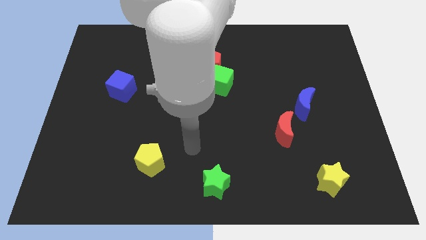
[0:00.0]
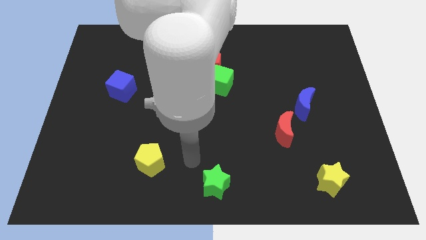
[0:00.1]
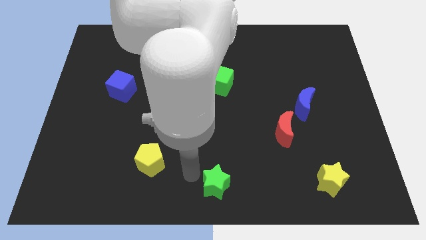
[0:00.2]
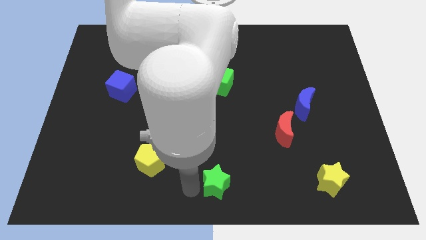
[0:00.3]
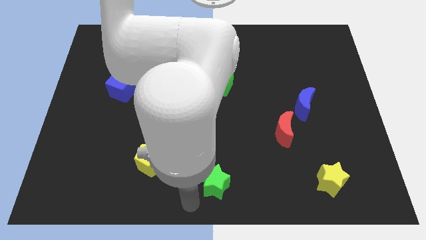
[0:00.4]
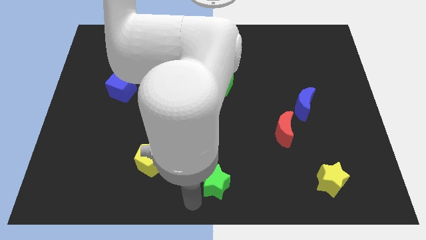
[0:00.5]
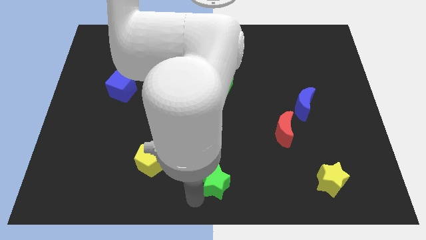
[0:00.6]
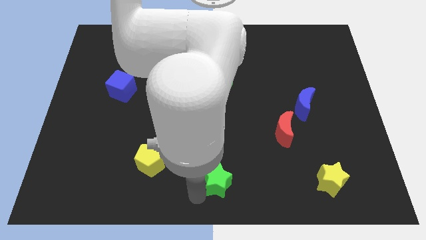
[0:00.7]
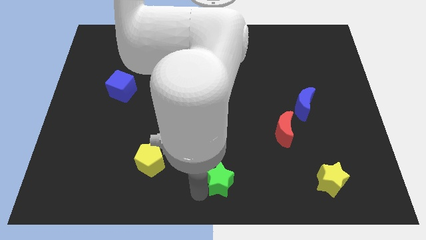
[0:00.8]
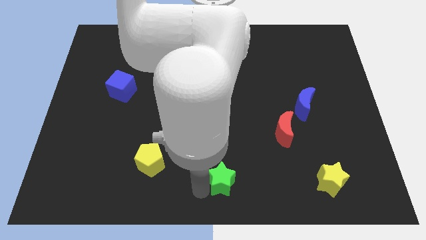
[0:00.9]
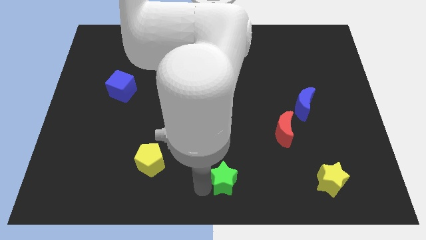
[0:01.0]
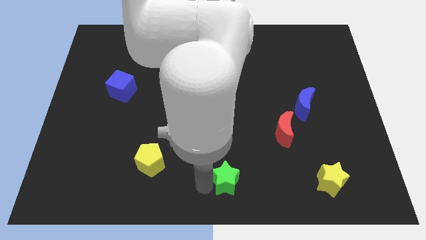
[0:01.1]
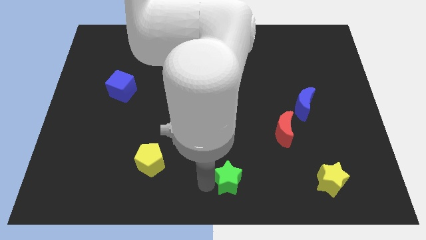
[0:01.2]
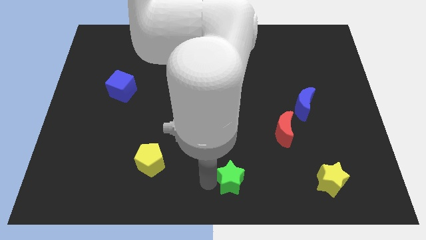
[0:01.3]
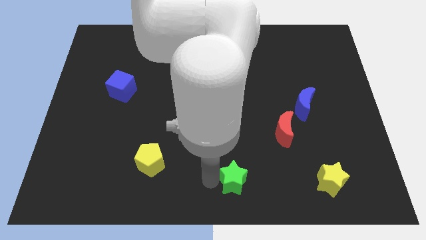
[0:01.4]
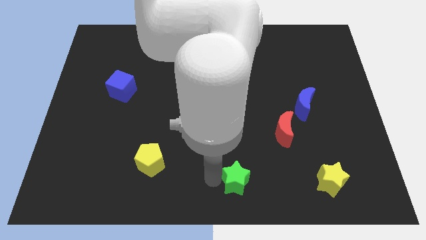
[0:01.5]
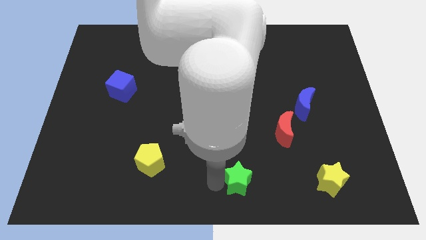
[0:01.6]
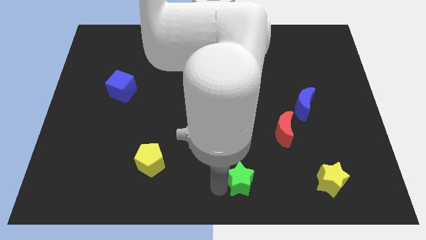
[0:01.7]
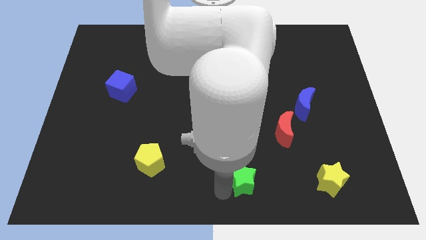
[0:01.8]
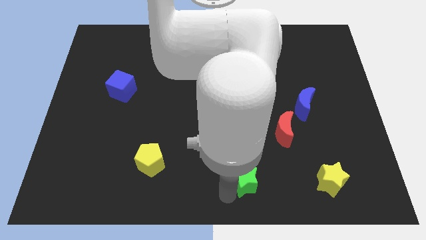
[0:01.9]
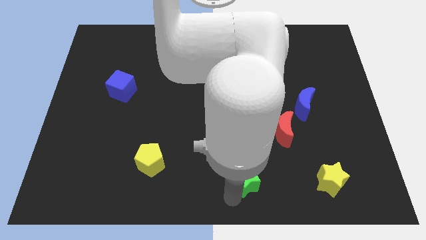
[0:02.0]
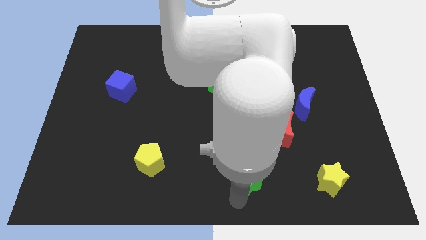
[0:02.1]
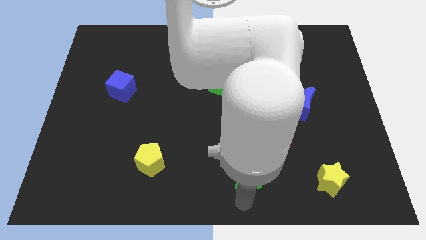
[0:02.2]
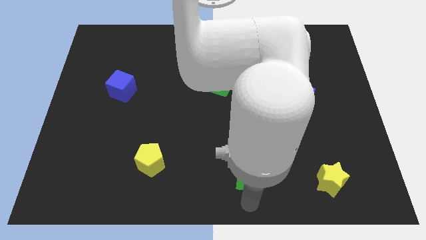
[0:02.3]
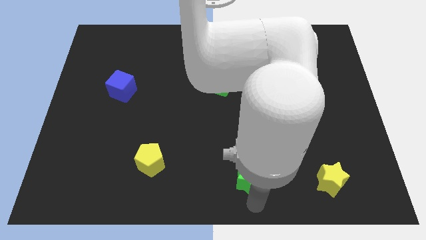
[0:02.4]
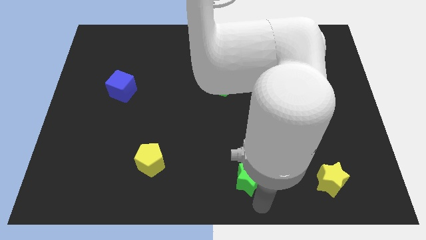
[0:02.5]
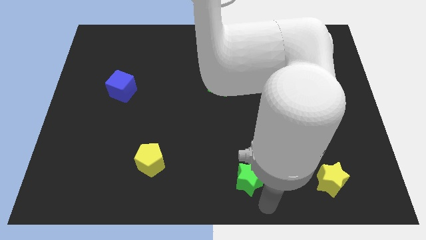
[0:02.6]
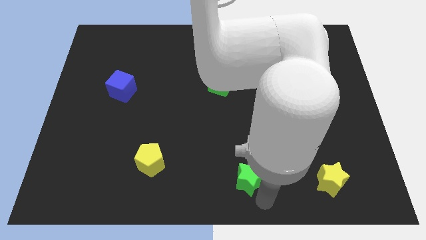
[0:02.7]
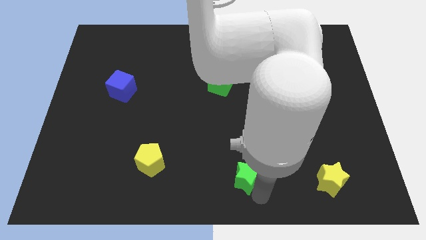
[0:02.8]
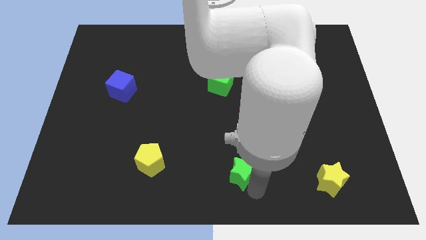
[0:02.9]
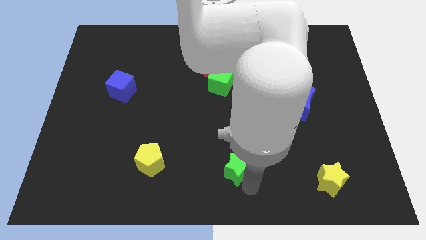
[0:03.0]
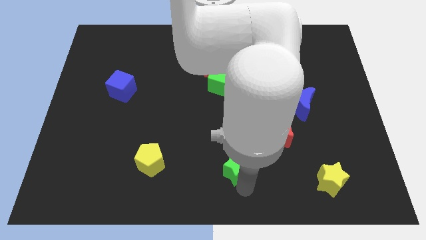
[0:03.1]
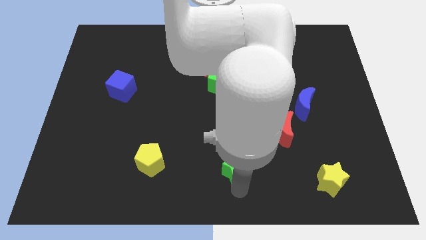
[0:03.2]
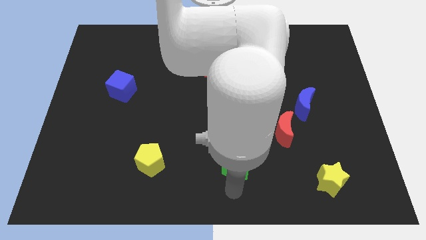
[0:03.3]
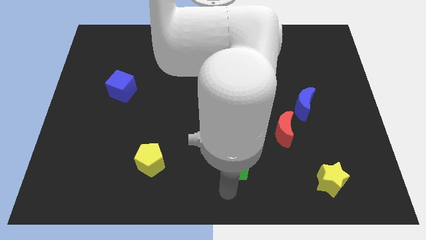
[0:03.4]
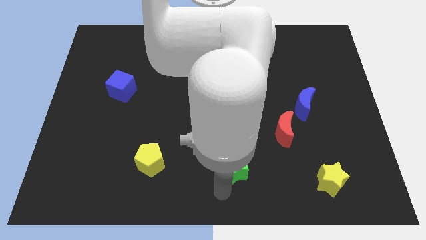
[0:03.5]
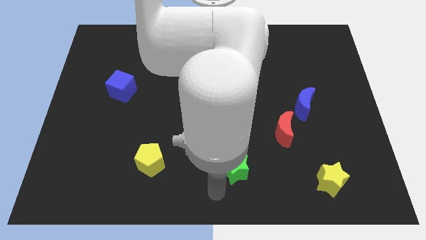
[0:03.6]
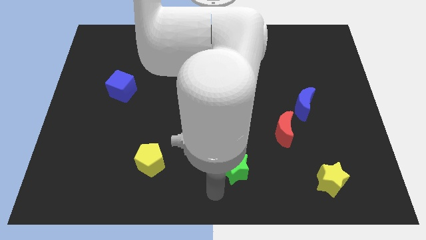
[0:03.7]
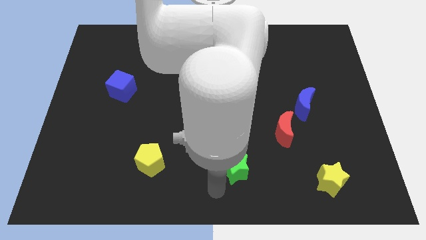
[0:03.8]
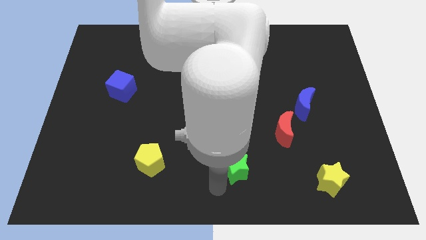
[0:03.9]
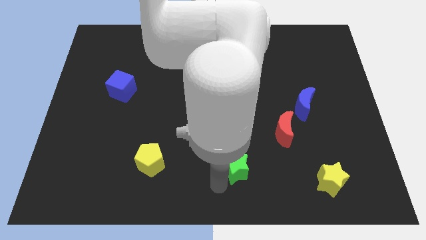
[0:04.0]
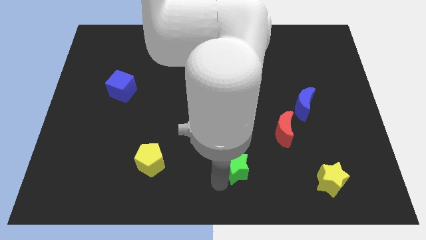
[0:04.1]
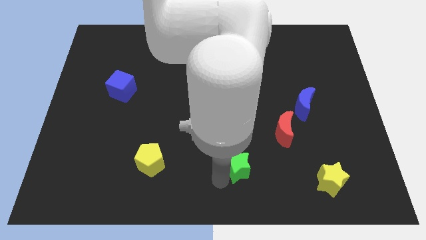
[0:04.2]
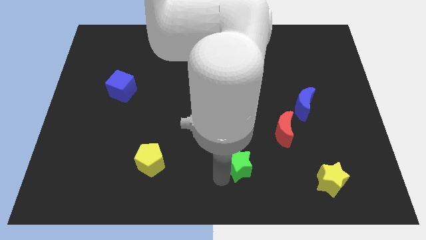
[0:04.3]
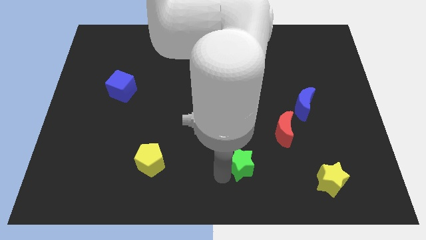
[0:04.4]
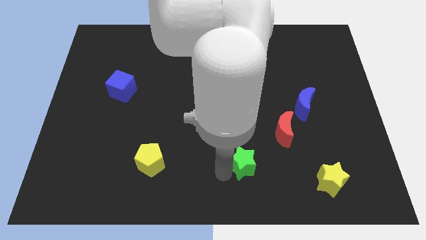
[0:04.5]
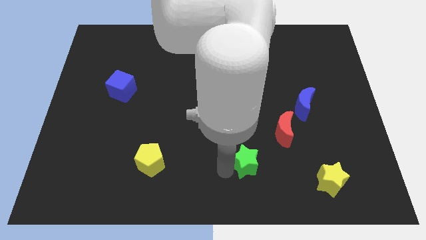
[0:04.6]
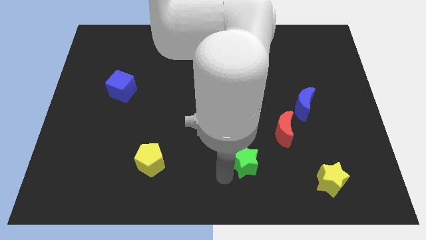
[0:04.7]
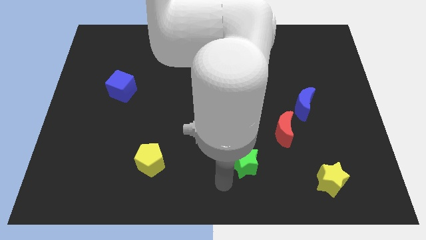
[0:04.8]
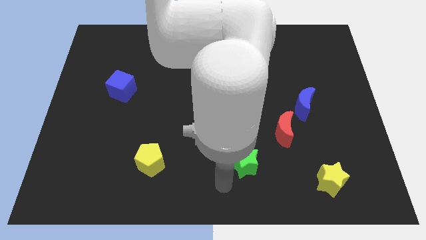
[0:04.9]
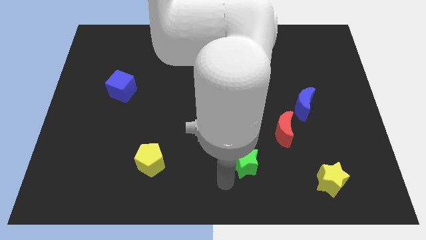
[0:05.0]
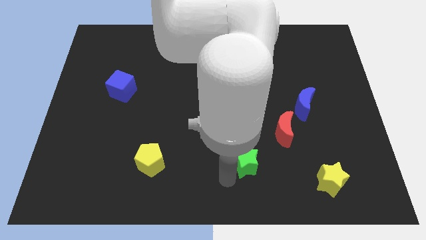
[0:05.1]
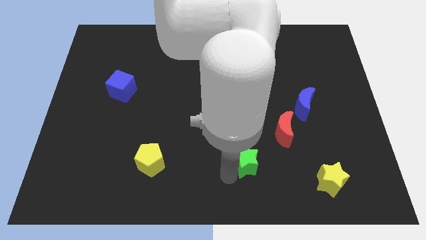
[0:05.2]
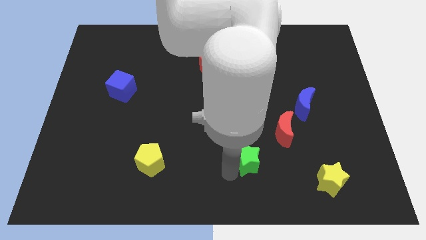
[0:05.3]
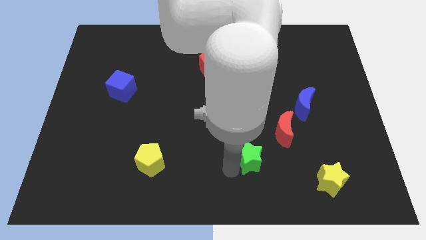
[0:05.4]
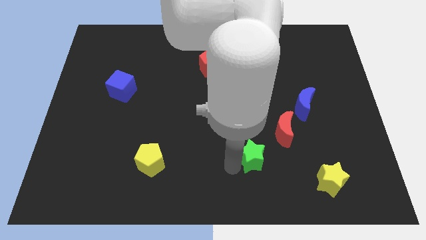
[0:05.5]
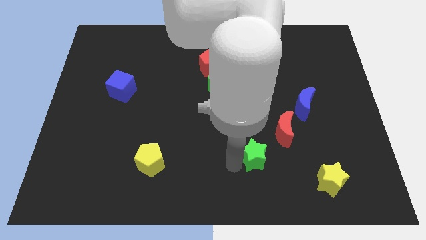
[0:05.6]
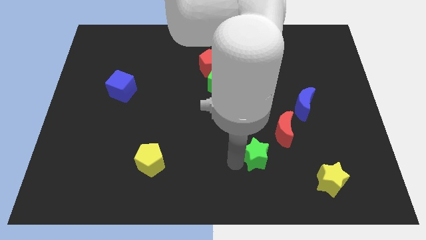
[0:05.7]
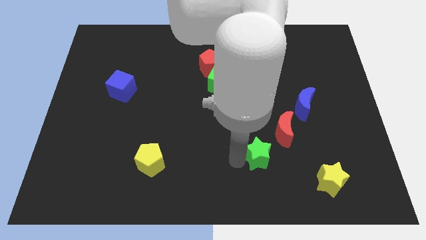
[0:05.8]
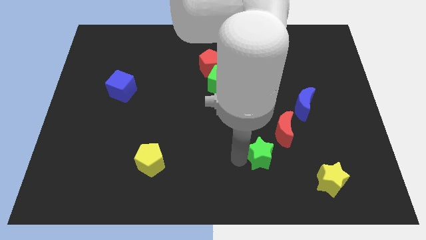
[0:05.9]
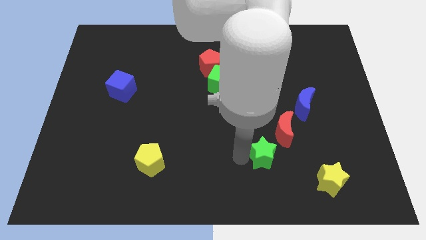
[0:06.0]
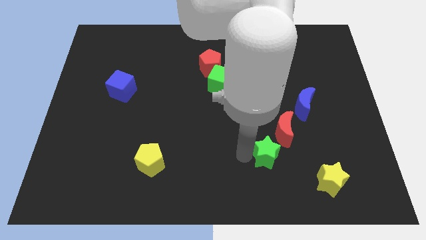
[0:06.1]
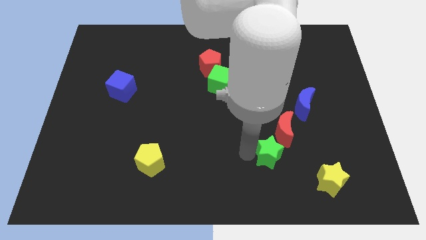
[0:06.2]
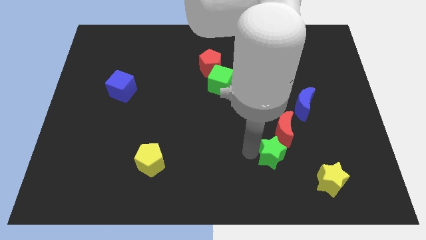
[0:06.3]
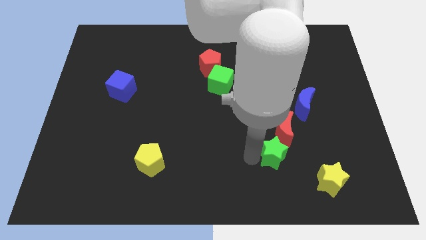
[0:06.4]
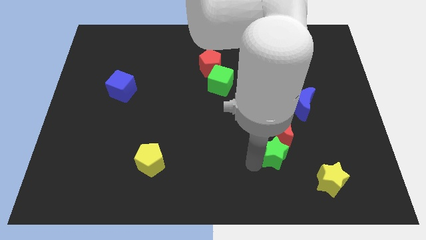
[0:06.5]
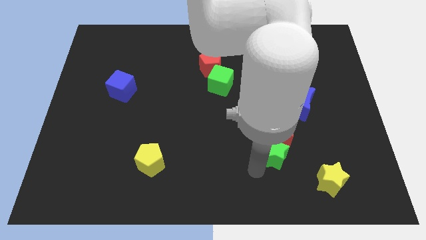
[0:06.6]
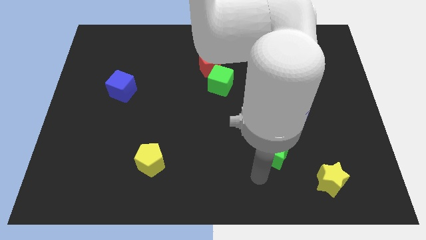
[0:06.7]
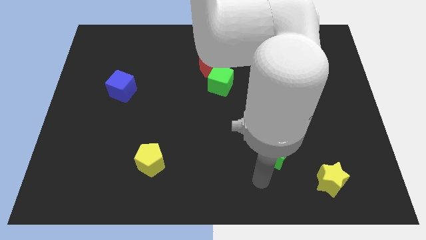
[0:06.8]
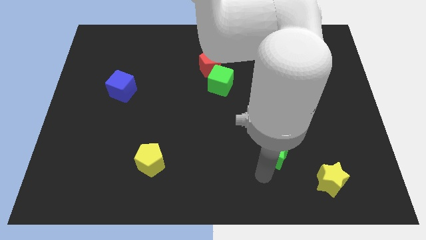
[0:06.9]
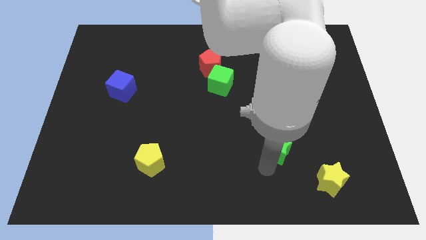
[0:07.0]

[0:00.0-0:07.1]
push the green star next to the red moon

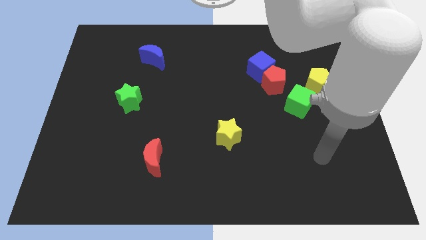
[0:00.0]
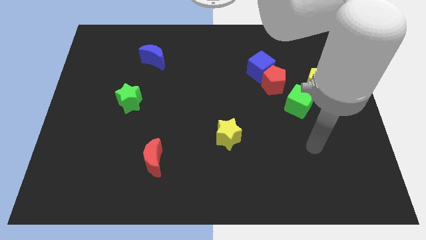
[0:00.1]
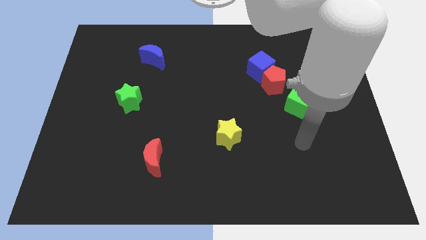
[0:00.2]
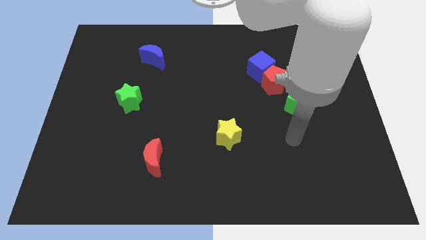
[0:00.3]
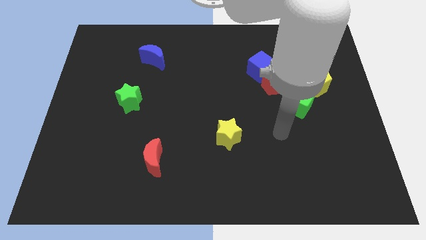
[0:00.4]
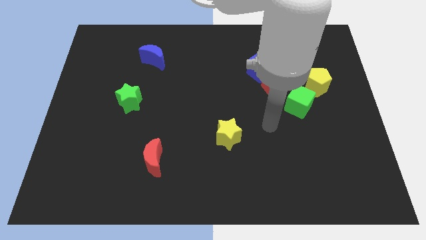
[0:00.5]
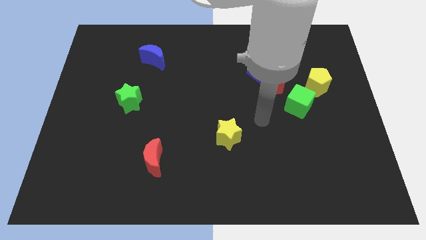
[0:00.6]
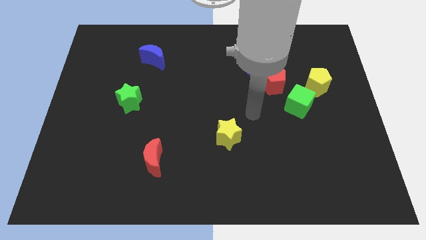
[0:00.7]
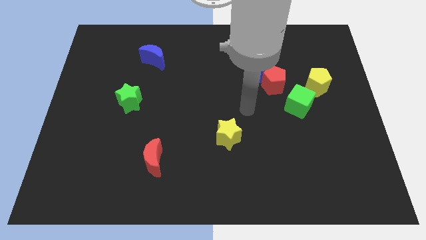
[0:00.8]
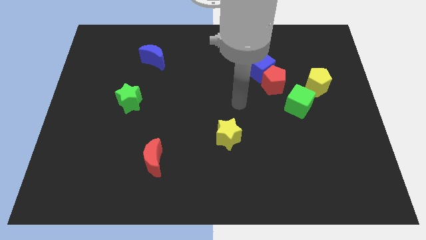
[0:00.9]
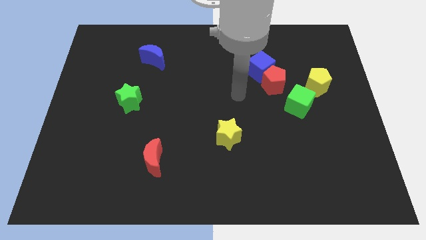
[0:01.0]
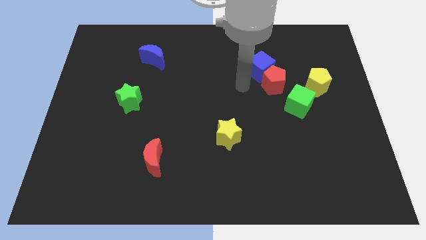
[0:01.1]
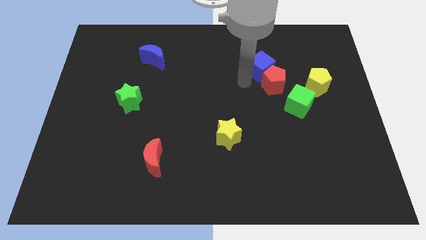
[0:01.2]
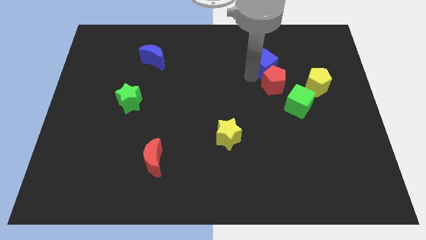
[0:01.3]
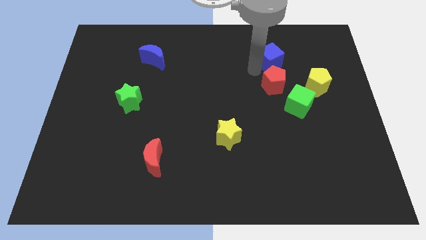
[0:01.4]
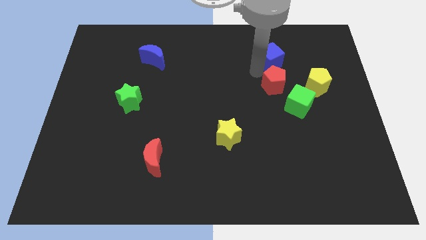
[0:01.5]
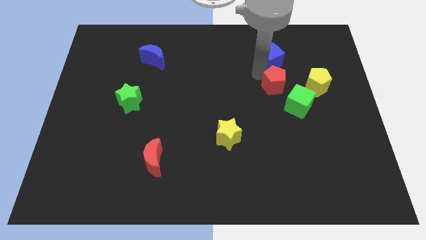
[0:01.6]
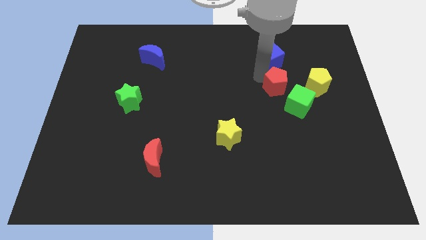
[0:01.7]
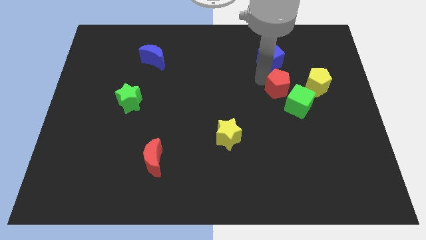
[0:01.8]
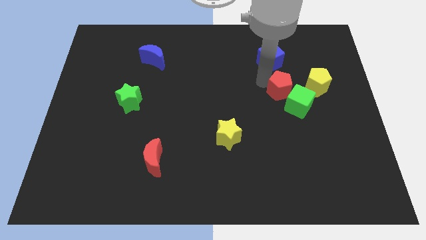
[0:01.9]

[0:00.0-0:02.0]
push the red pentagon towards the green cube
